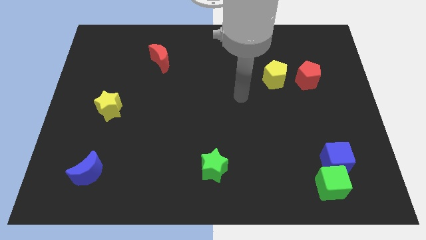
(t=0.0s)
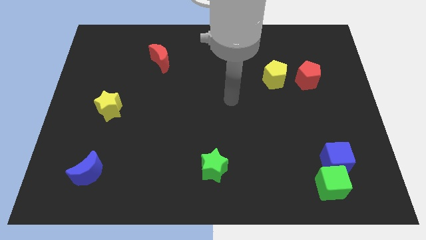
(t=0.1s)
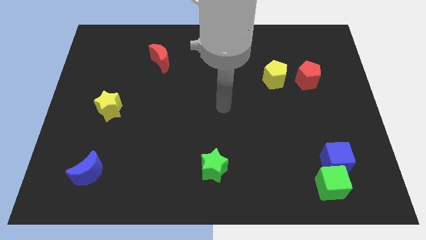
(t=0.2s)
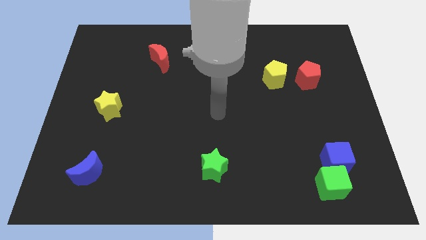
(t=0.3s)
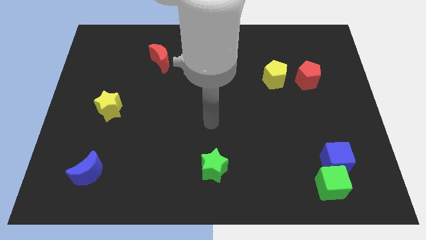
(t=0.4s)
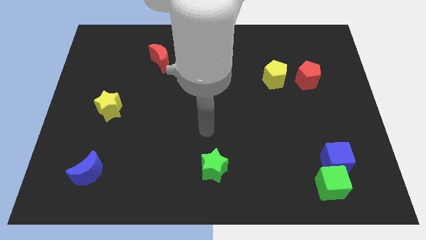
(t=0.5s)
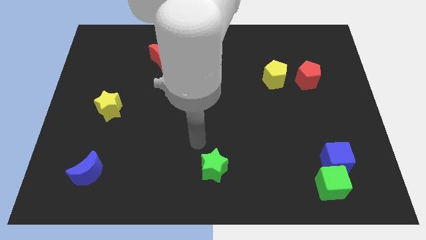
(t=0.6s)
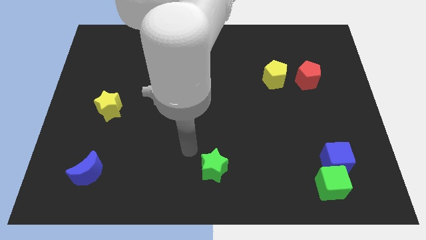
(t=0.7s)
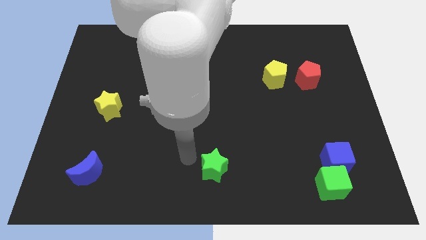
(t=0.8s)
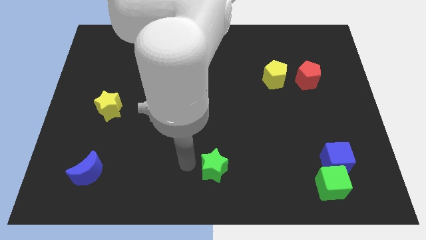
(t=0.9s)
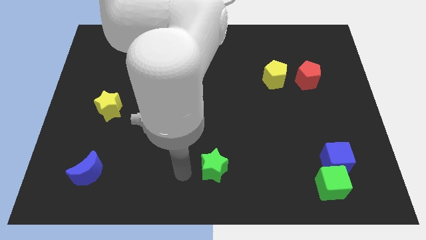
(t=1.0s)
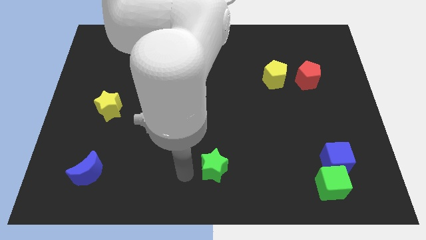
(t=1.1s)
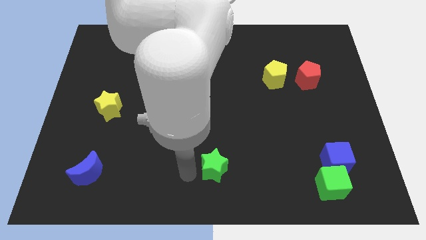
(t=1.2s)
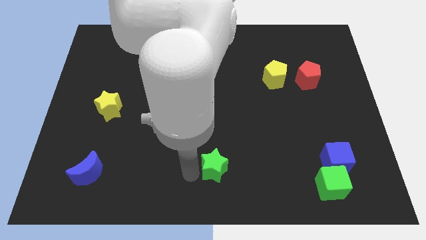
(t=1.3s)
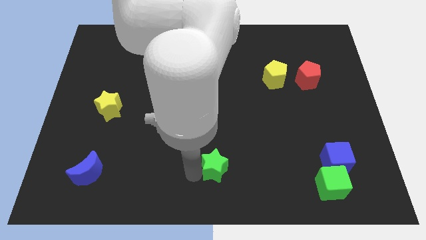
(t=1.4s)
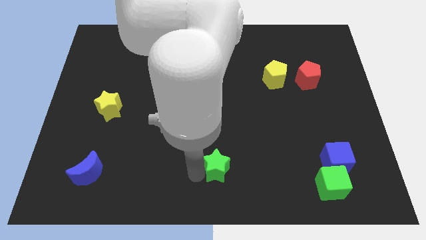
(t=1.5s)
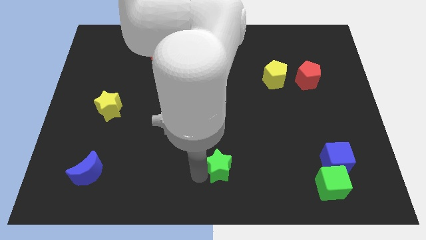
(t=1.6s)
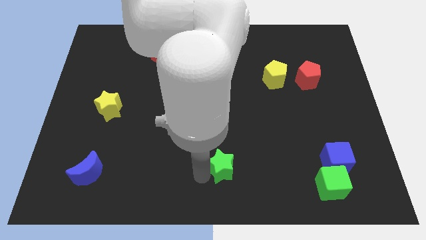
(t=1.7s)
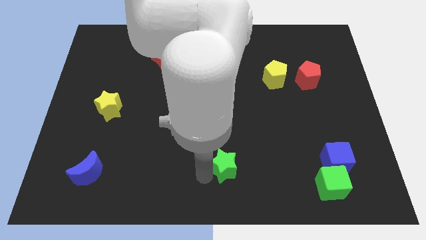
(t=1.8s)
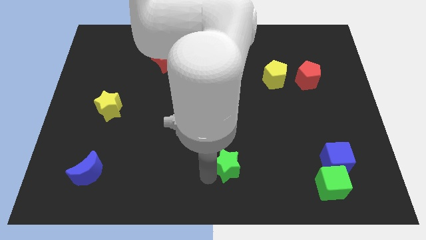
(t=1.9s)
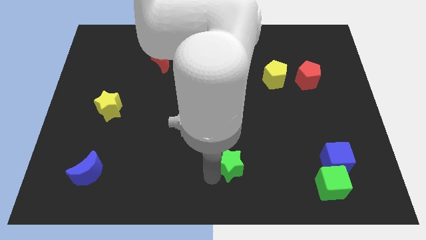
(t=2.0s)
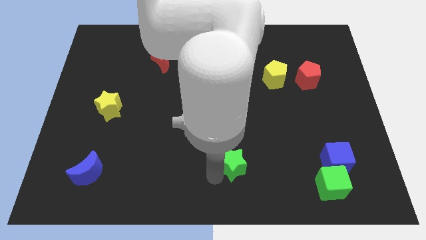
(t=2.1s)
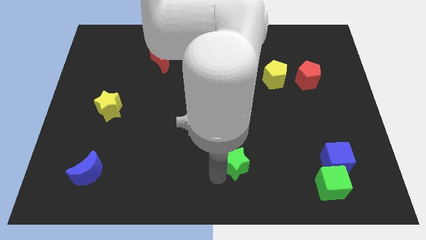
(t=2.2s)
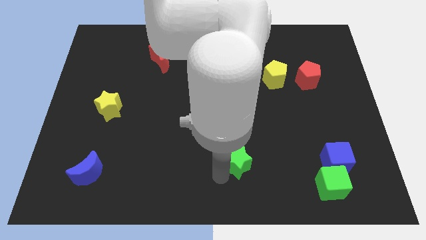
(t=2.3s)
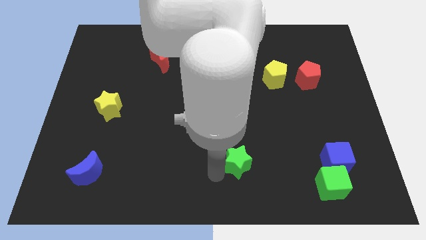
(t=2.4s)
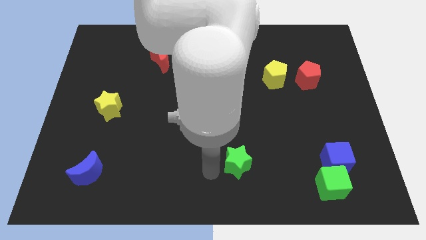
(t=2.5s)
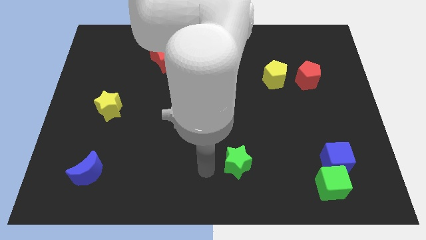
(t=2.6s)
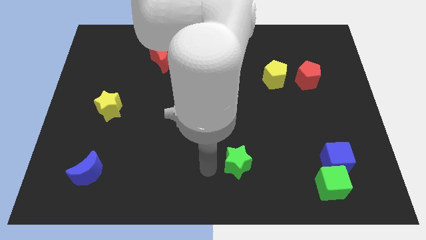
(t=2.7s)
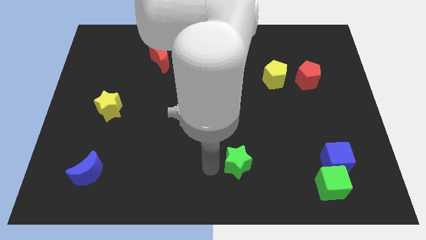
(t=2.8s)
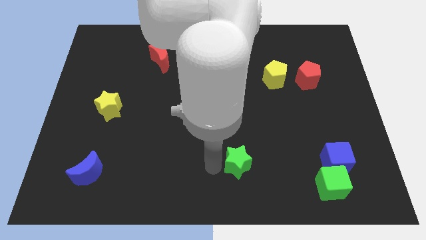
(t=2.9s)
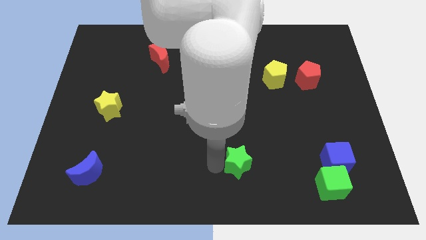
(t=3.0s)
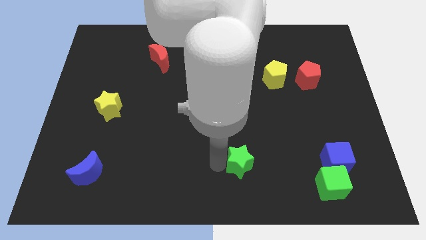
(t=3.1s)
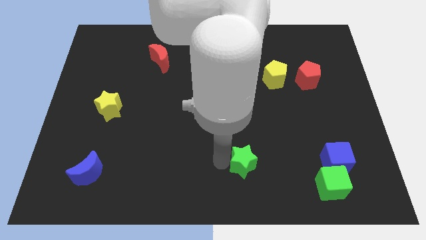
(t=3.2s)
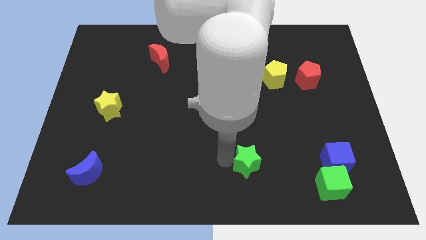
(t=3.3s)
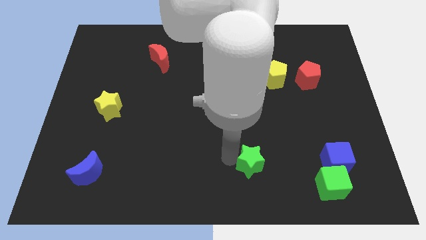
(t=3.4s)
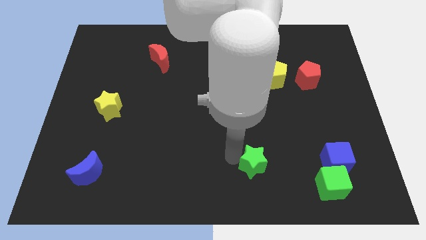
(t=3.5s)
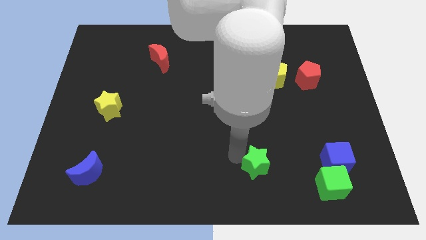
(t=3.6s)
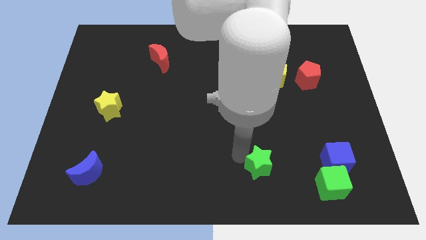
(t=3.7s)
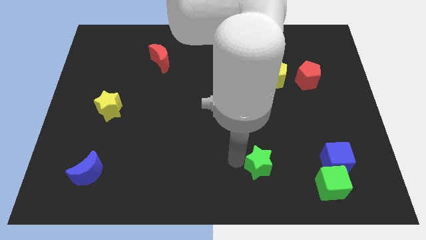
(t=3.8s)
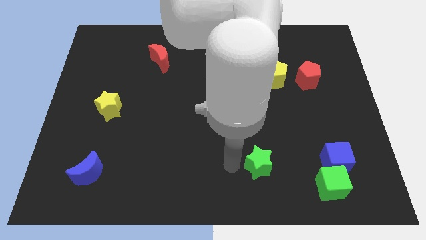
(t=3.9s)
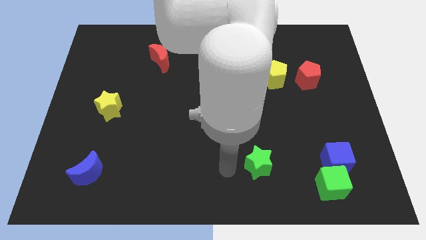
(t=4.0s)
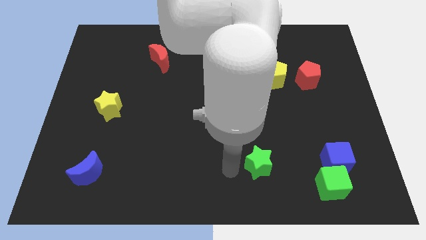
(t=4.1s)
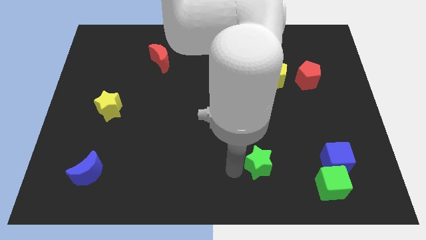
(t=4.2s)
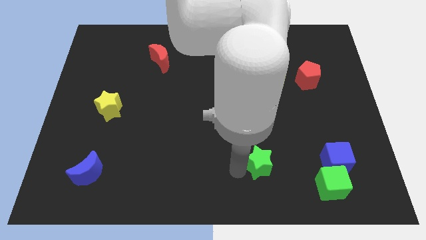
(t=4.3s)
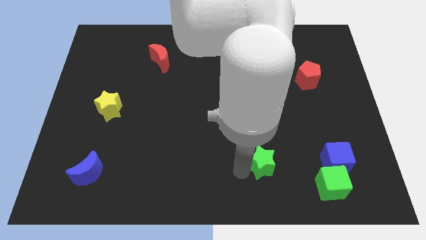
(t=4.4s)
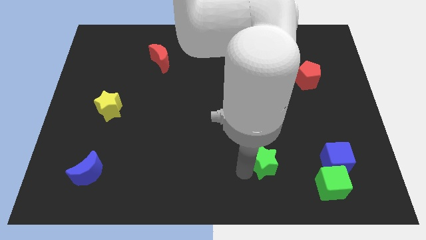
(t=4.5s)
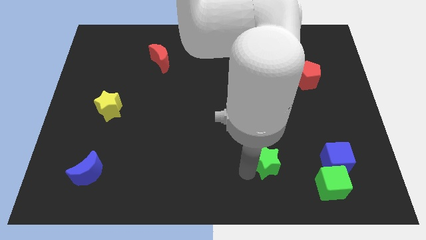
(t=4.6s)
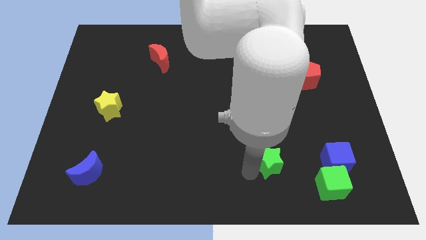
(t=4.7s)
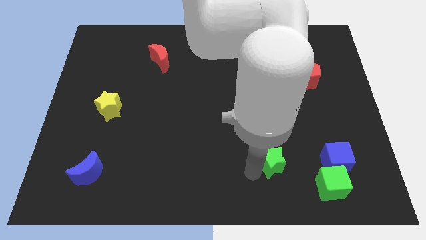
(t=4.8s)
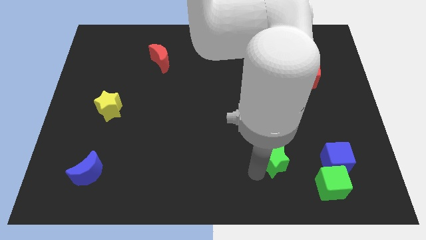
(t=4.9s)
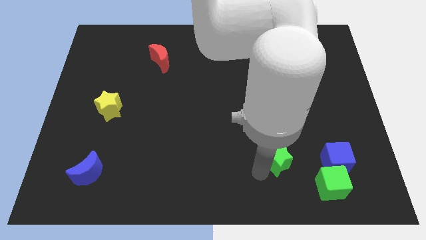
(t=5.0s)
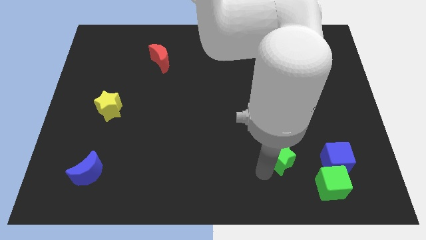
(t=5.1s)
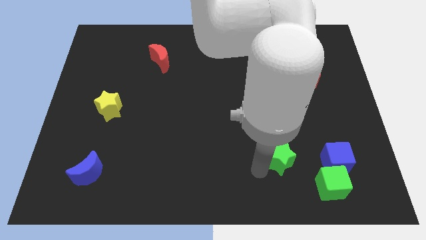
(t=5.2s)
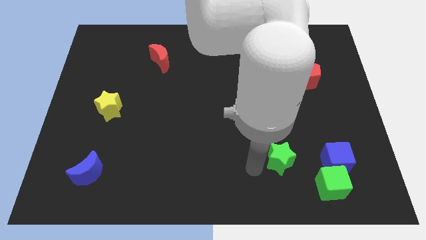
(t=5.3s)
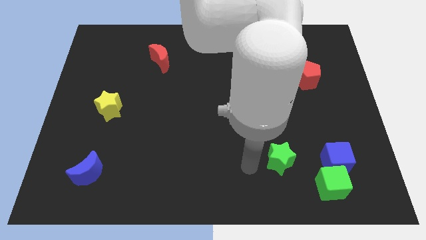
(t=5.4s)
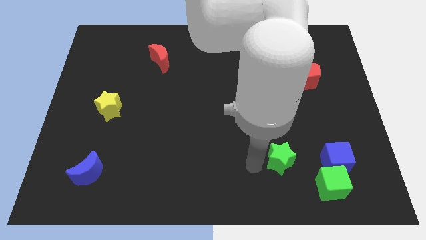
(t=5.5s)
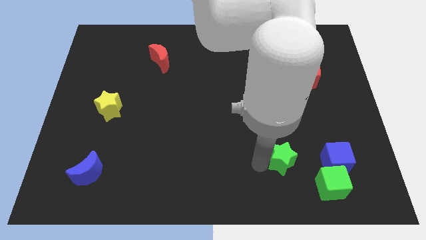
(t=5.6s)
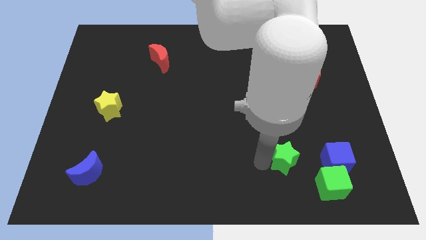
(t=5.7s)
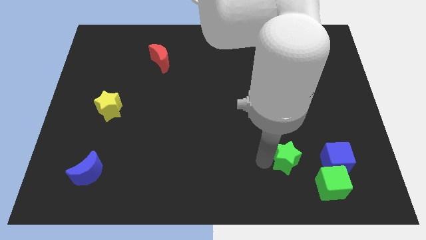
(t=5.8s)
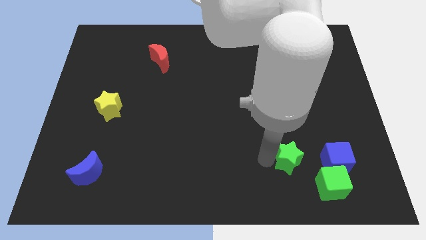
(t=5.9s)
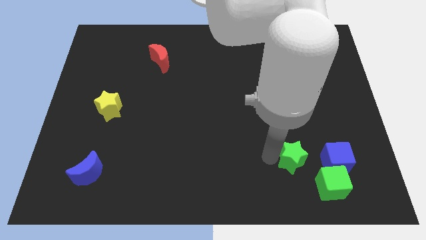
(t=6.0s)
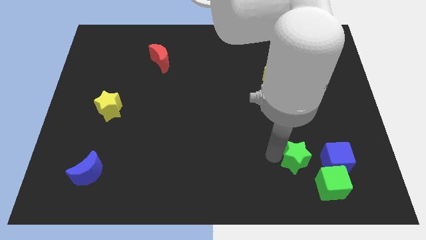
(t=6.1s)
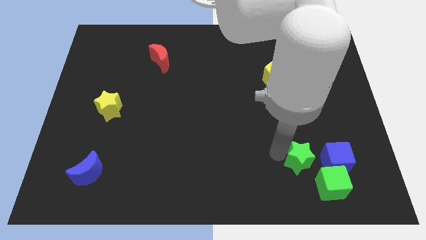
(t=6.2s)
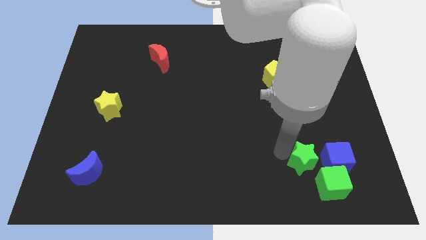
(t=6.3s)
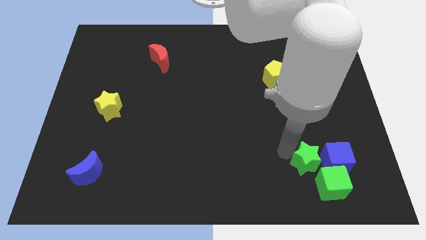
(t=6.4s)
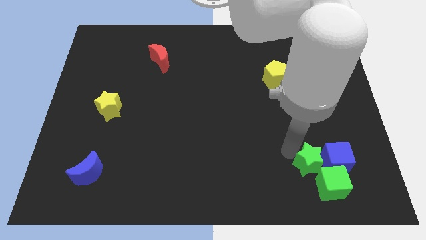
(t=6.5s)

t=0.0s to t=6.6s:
push the green star next to the blue cube

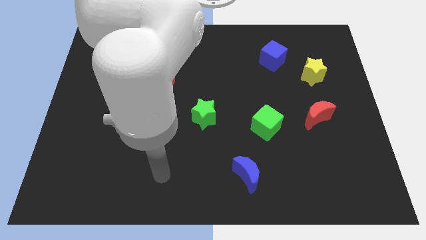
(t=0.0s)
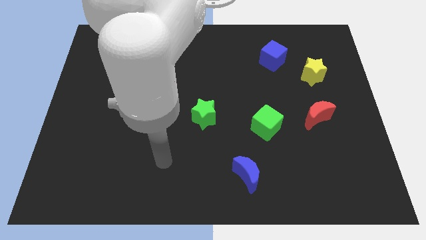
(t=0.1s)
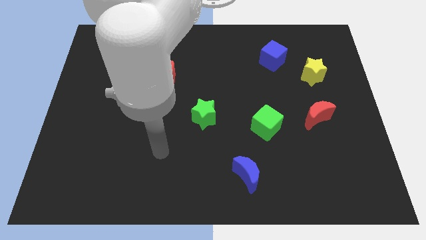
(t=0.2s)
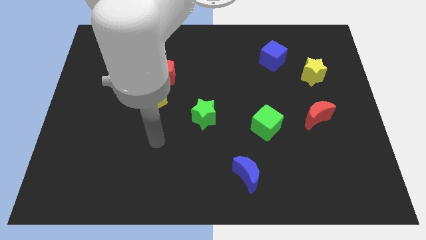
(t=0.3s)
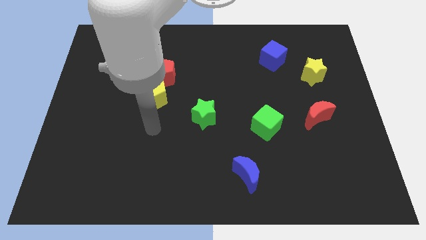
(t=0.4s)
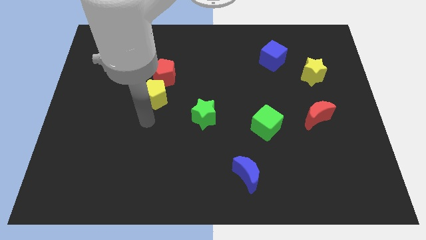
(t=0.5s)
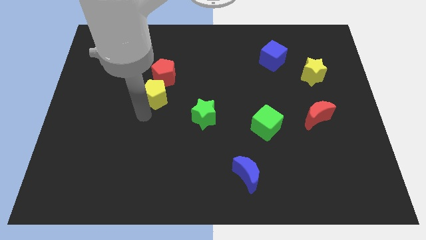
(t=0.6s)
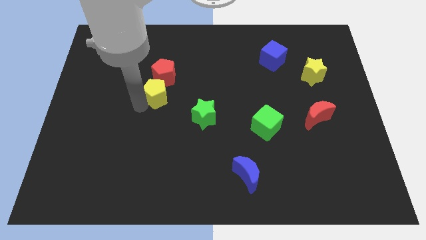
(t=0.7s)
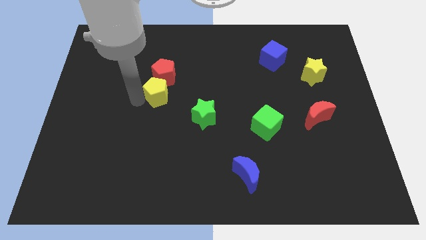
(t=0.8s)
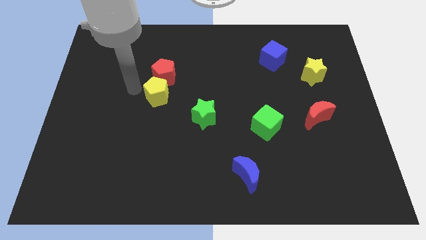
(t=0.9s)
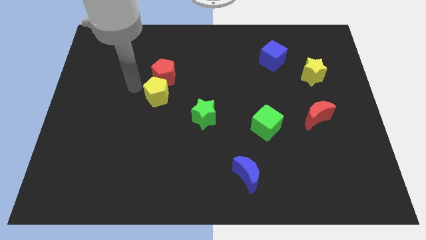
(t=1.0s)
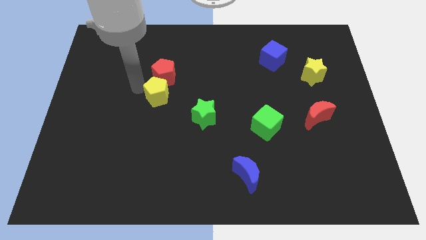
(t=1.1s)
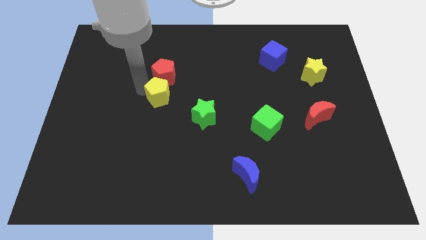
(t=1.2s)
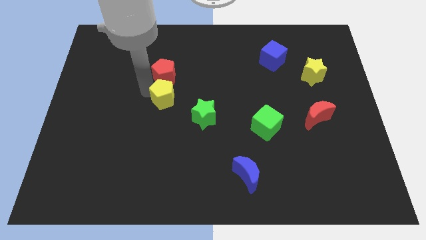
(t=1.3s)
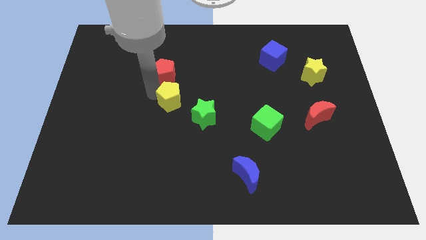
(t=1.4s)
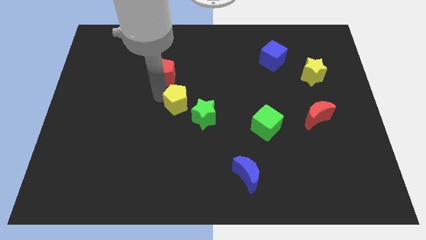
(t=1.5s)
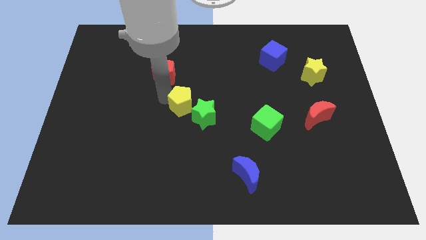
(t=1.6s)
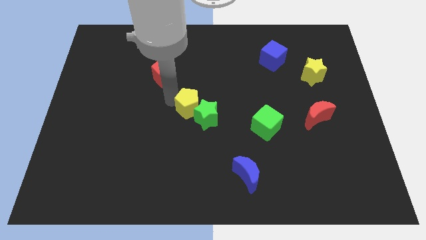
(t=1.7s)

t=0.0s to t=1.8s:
slide the yellow pentagon close to the green star
